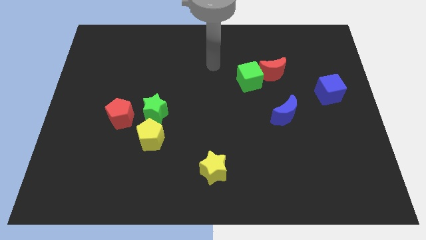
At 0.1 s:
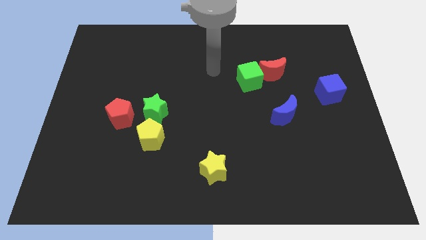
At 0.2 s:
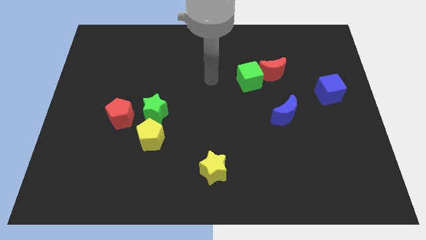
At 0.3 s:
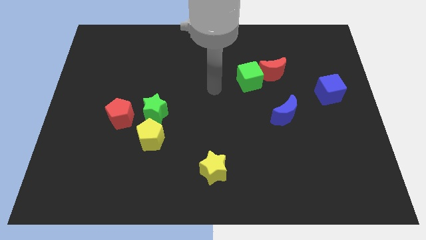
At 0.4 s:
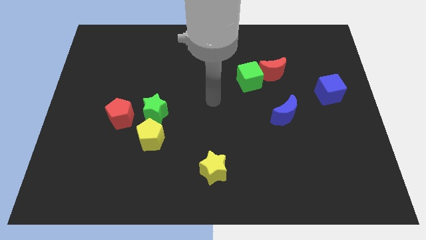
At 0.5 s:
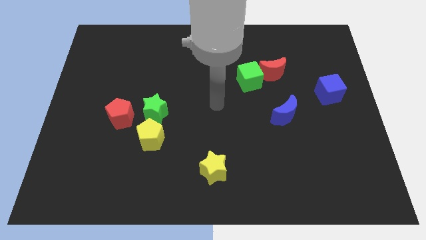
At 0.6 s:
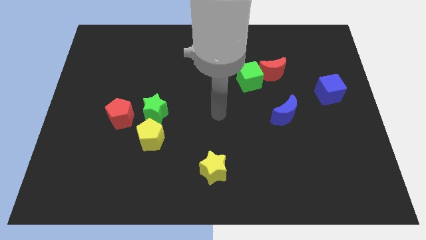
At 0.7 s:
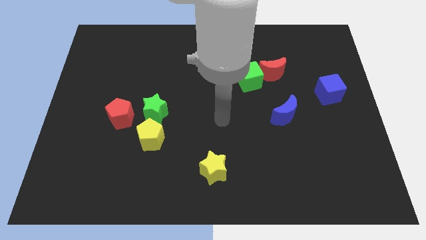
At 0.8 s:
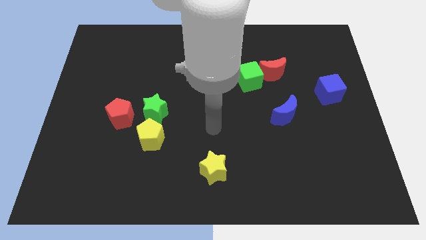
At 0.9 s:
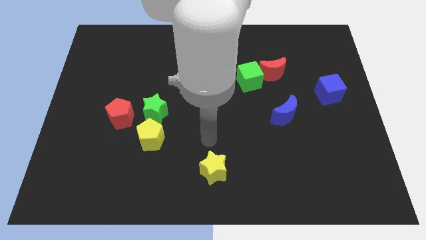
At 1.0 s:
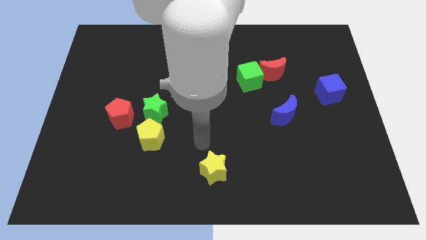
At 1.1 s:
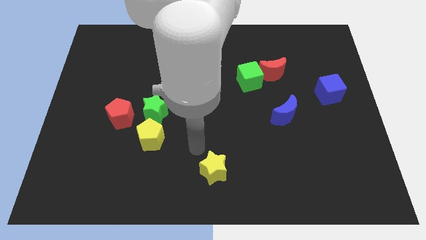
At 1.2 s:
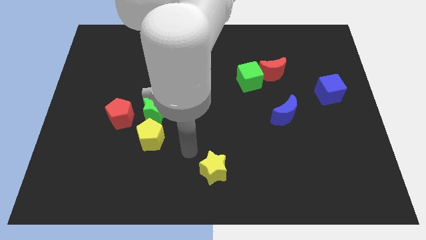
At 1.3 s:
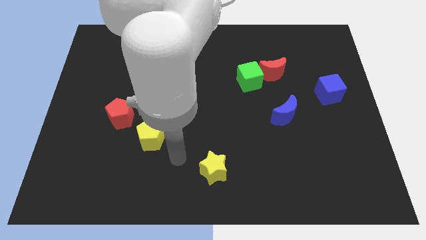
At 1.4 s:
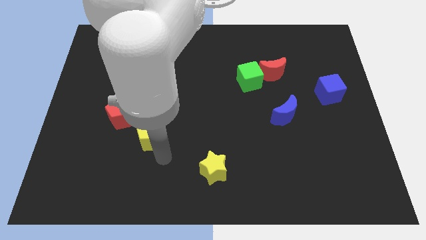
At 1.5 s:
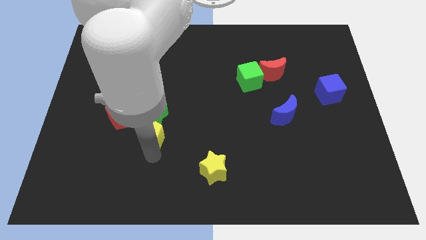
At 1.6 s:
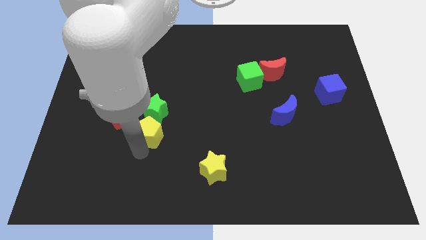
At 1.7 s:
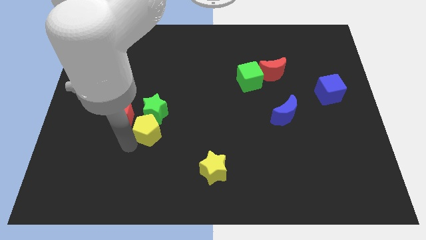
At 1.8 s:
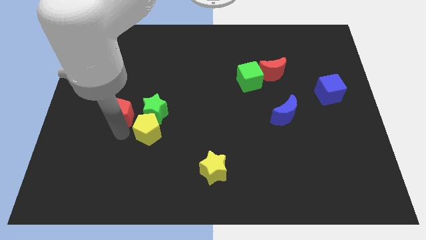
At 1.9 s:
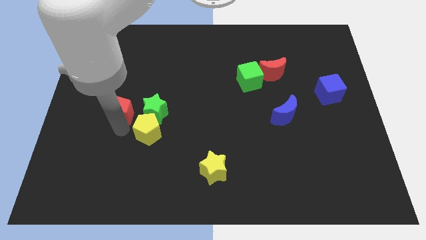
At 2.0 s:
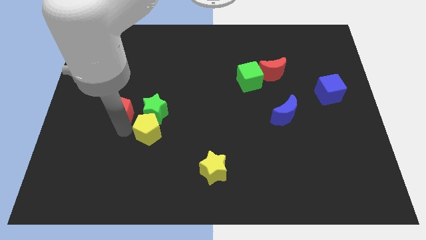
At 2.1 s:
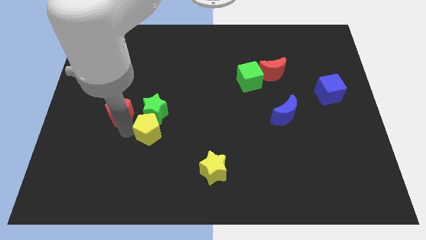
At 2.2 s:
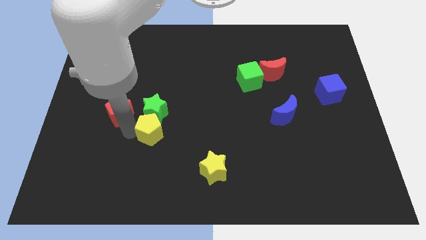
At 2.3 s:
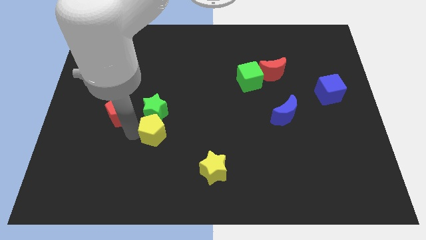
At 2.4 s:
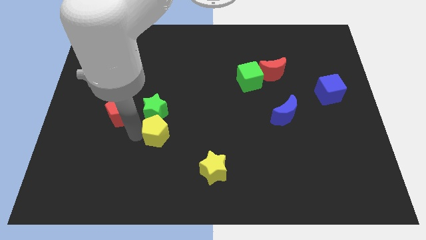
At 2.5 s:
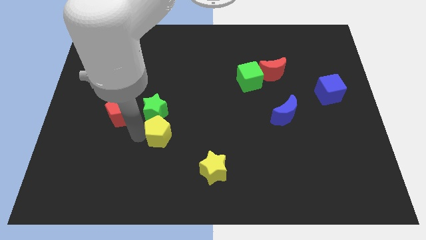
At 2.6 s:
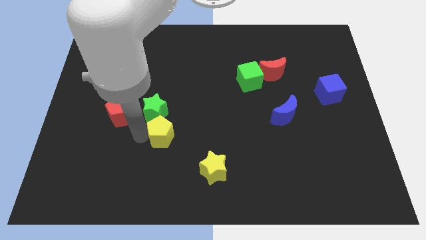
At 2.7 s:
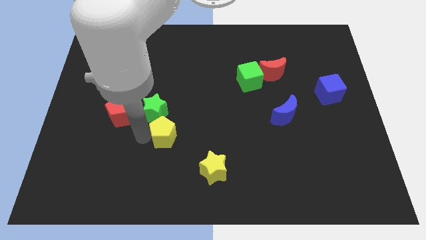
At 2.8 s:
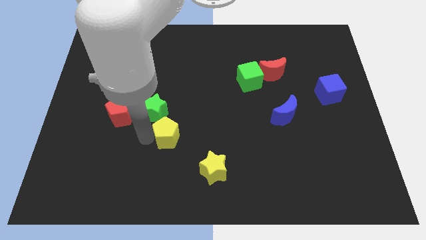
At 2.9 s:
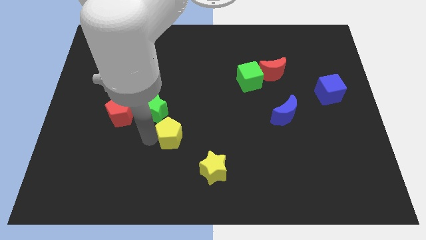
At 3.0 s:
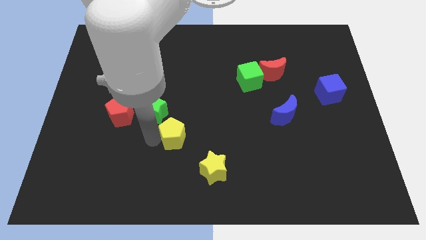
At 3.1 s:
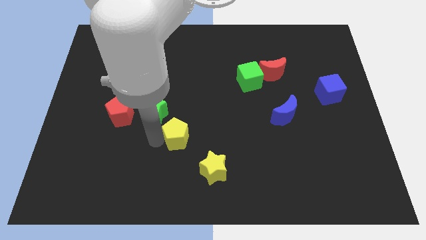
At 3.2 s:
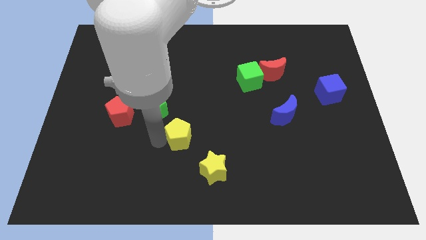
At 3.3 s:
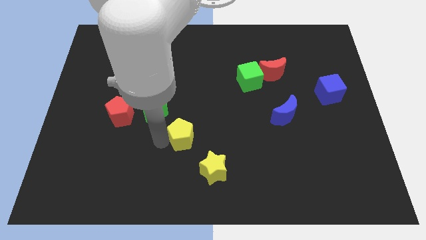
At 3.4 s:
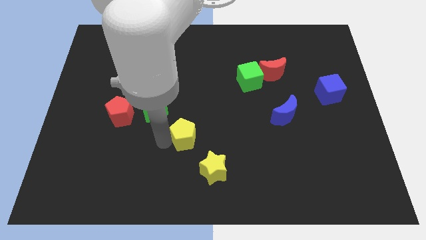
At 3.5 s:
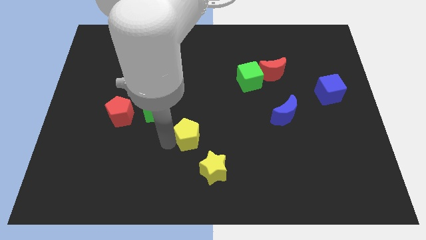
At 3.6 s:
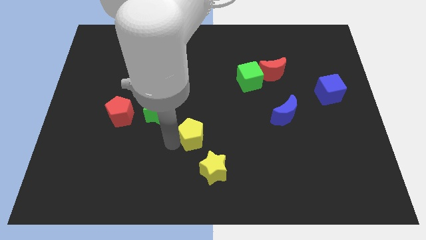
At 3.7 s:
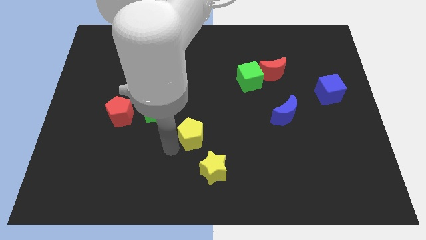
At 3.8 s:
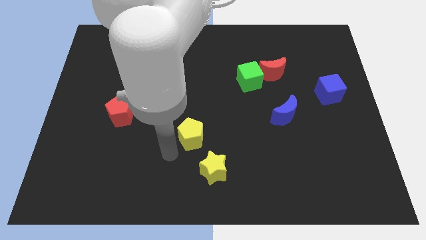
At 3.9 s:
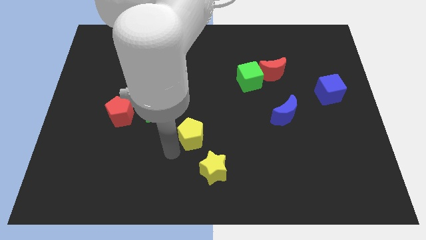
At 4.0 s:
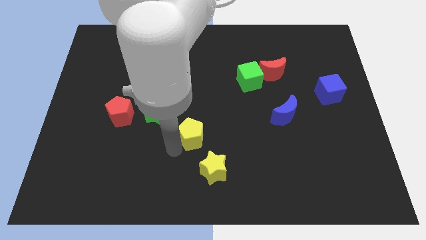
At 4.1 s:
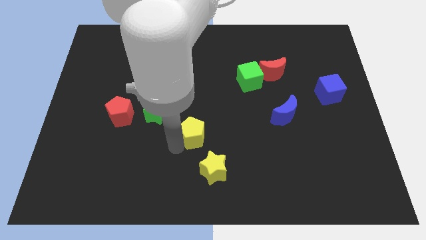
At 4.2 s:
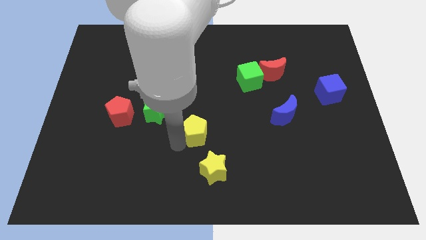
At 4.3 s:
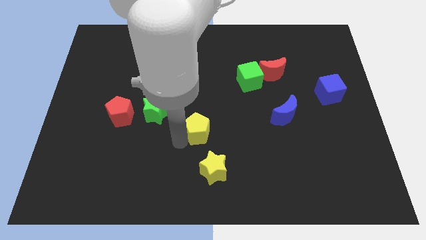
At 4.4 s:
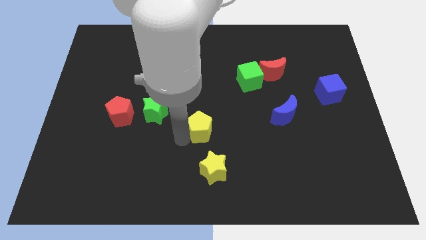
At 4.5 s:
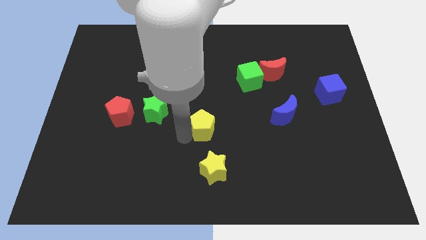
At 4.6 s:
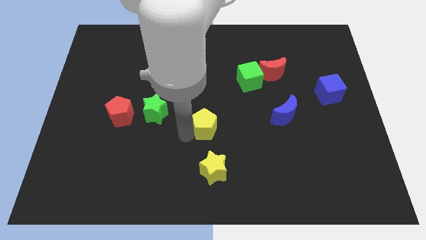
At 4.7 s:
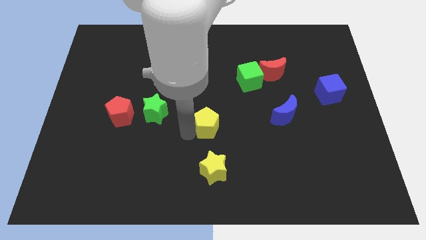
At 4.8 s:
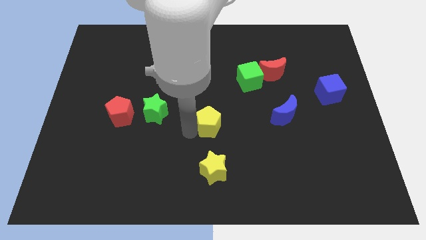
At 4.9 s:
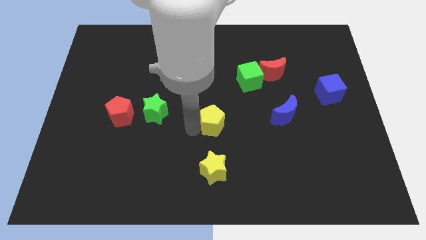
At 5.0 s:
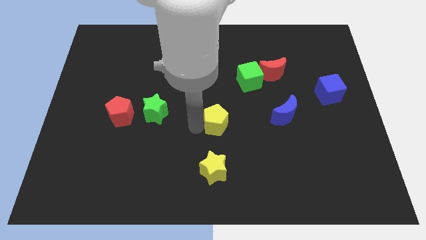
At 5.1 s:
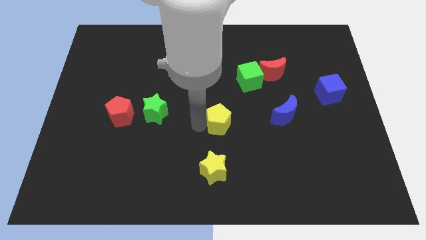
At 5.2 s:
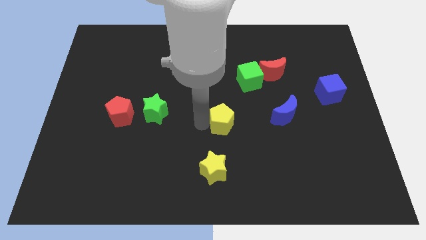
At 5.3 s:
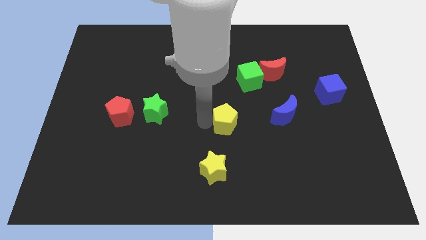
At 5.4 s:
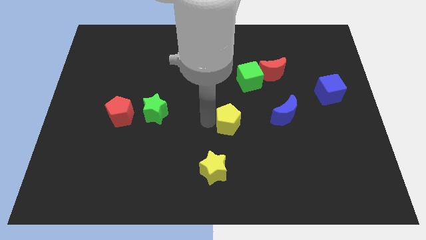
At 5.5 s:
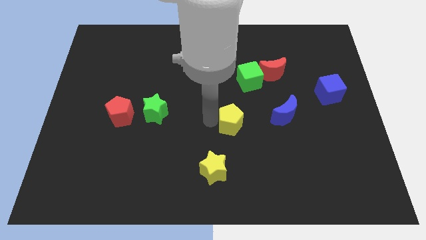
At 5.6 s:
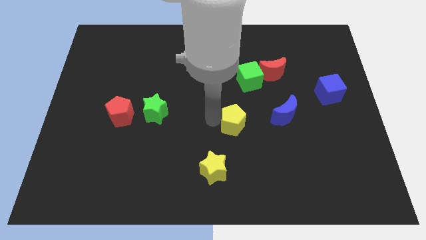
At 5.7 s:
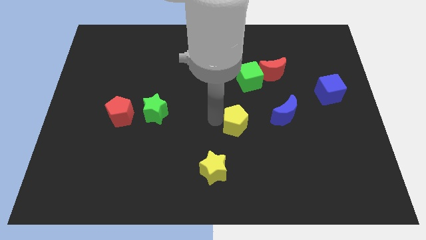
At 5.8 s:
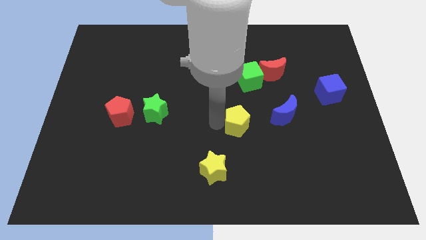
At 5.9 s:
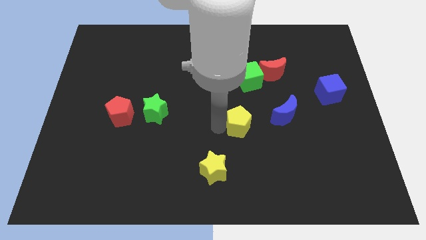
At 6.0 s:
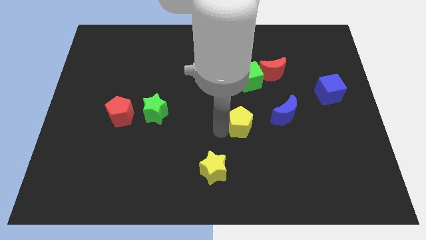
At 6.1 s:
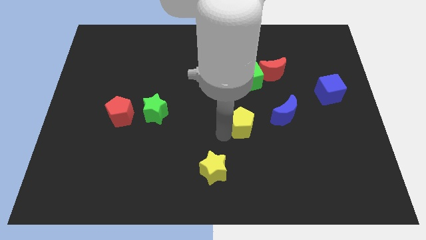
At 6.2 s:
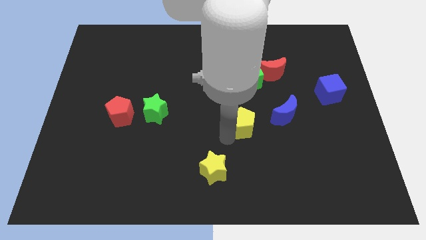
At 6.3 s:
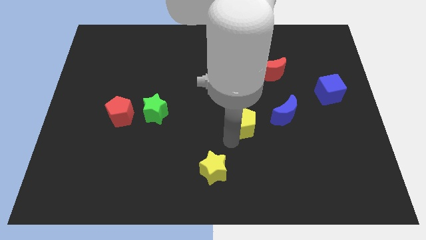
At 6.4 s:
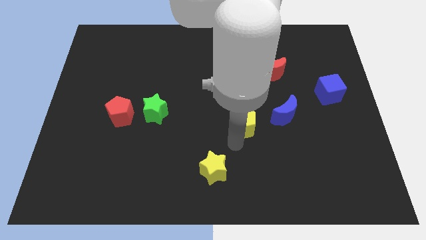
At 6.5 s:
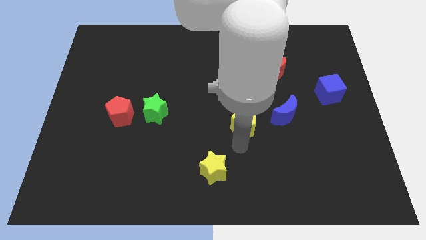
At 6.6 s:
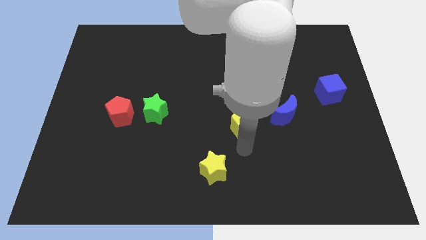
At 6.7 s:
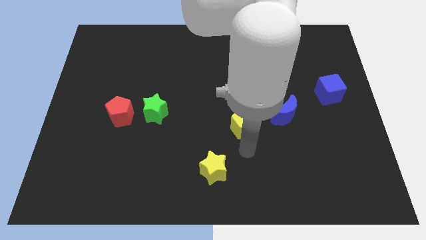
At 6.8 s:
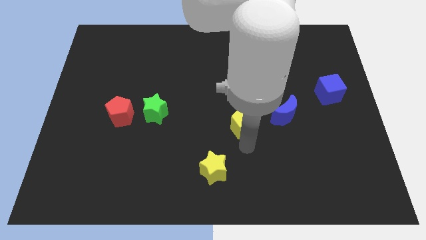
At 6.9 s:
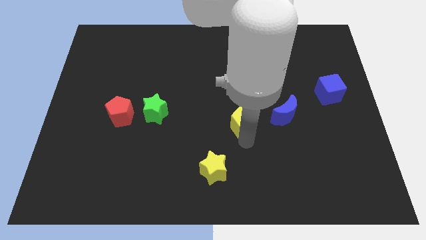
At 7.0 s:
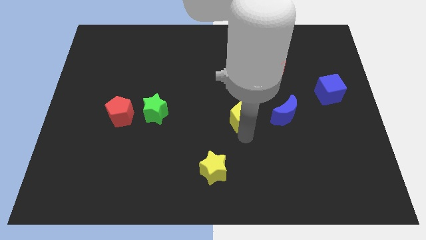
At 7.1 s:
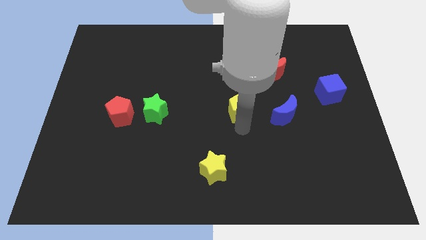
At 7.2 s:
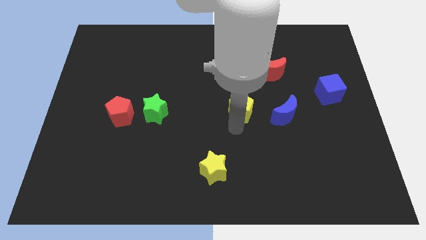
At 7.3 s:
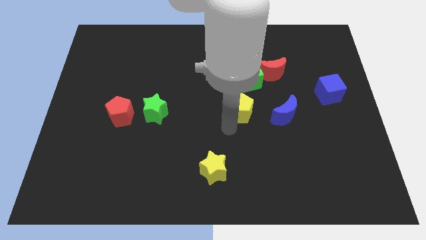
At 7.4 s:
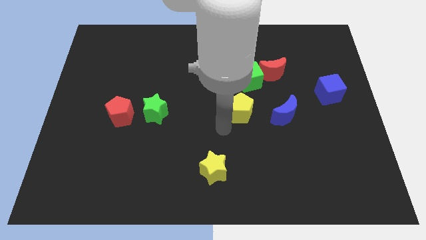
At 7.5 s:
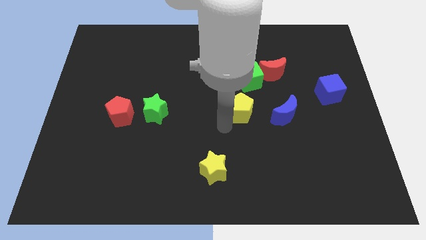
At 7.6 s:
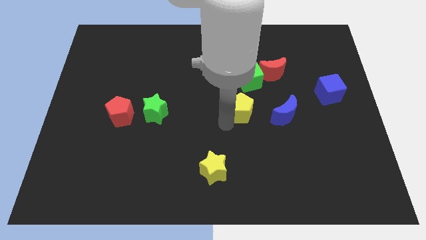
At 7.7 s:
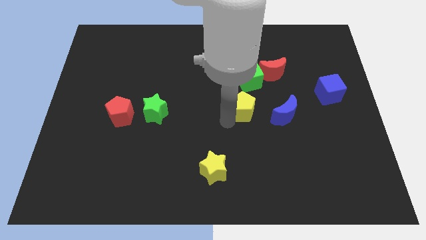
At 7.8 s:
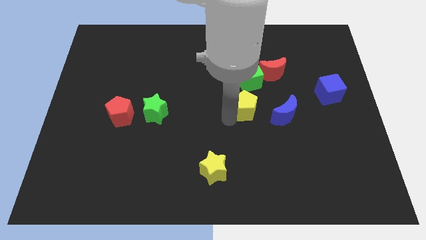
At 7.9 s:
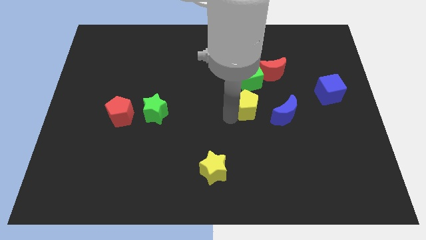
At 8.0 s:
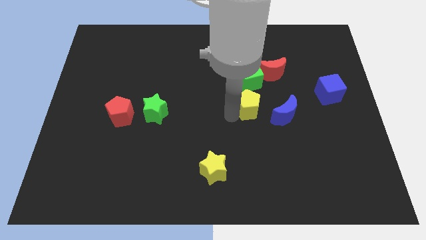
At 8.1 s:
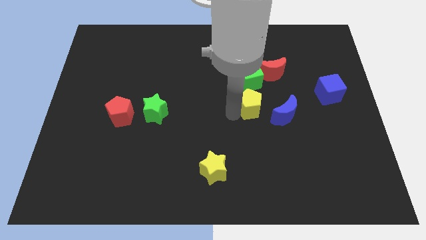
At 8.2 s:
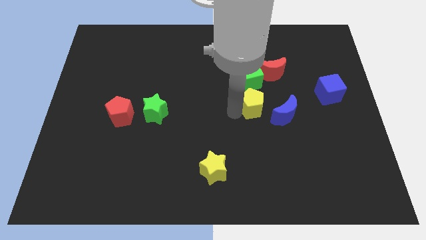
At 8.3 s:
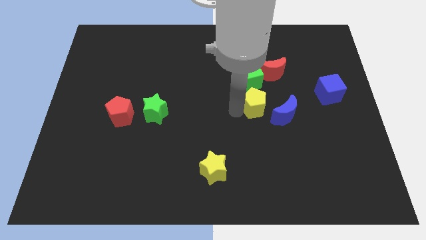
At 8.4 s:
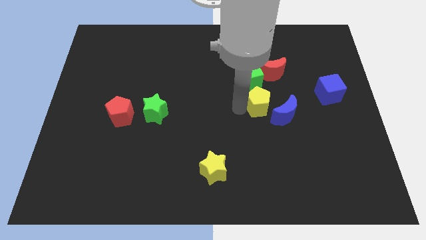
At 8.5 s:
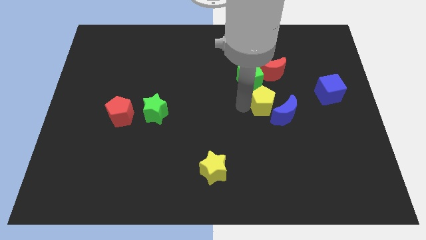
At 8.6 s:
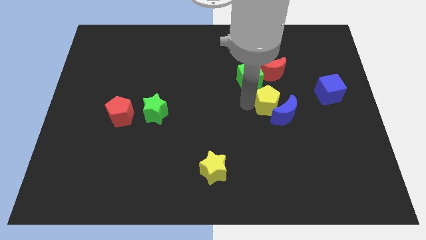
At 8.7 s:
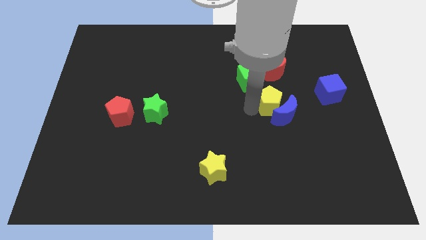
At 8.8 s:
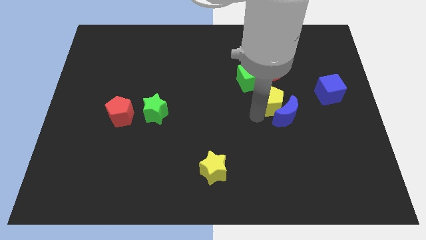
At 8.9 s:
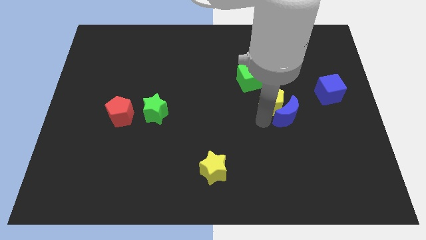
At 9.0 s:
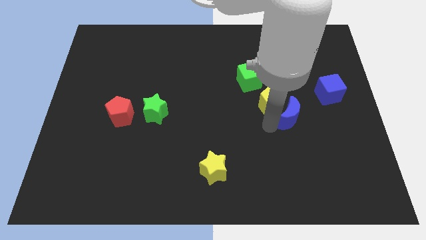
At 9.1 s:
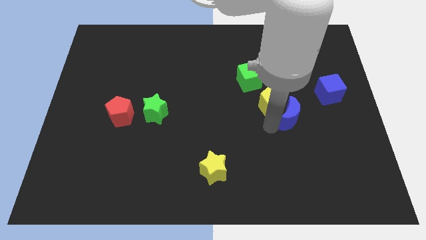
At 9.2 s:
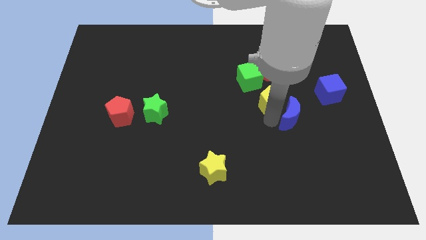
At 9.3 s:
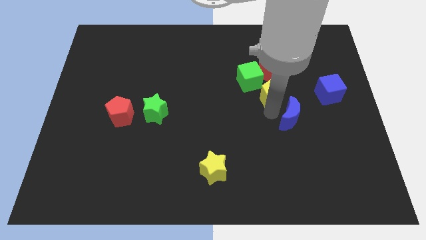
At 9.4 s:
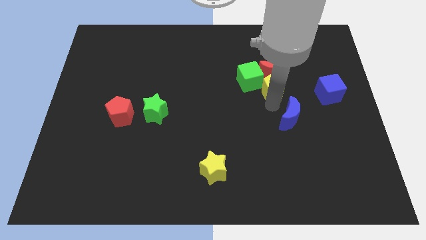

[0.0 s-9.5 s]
push the yellow pentagon next to the red moon
